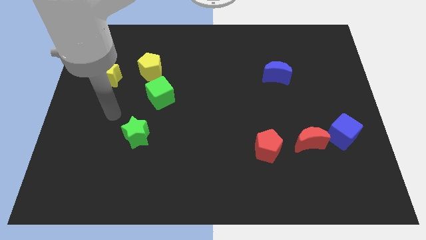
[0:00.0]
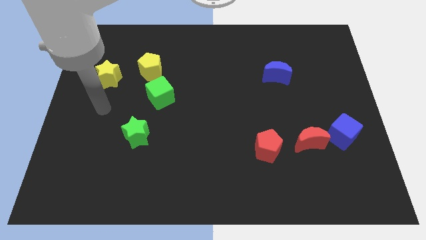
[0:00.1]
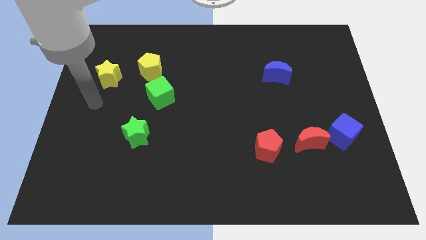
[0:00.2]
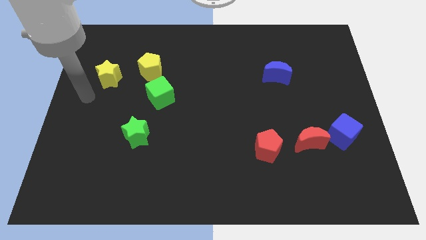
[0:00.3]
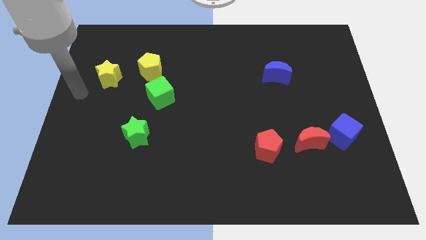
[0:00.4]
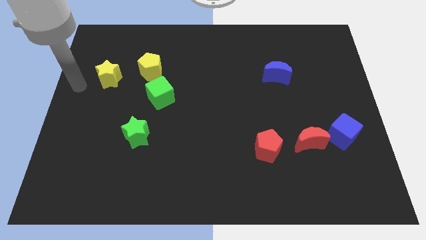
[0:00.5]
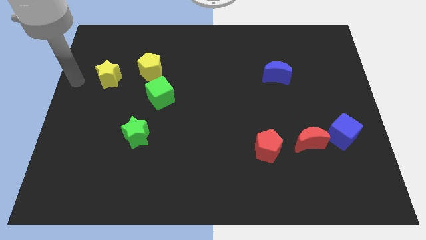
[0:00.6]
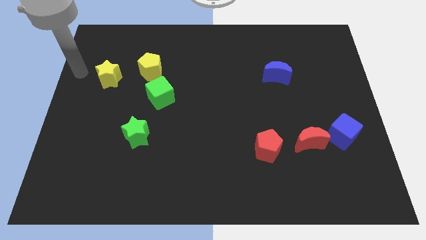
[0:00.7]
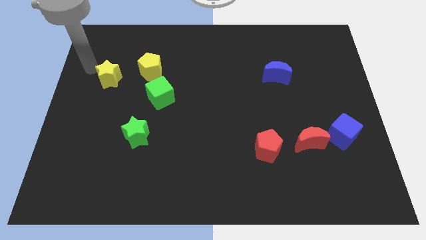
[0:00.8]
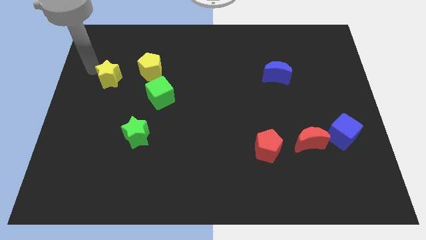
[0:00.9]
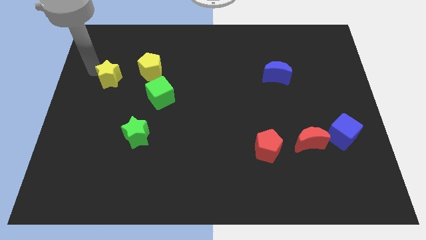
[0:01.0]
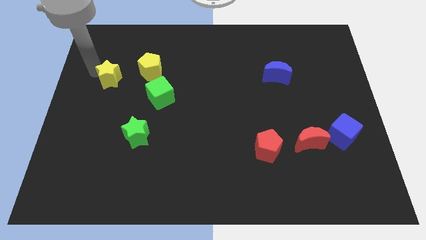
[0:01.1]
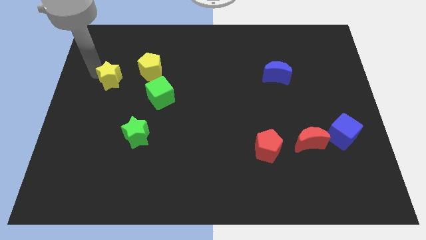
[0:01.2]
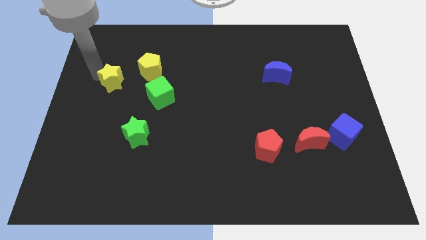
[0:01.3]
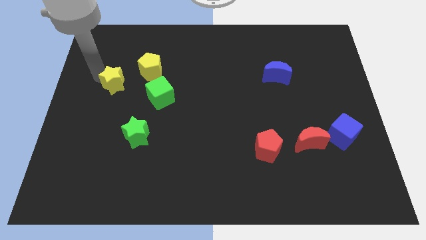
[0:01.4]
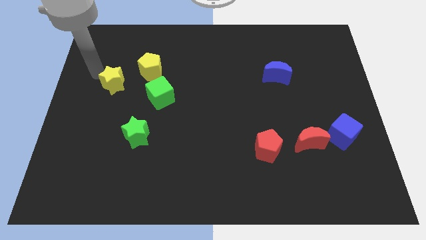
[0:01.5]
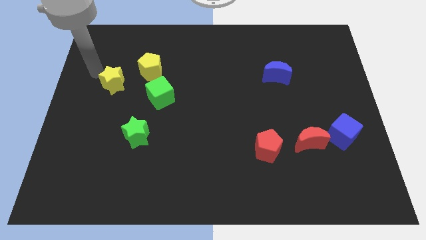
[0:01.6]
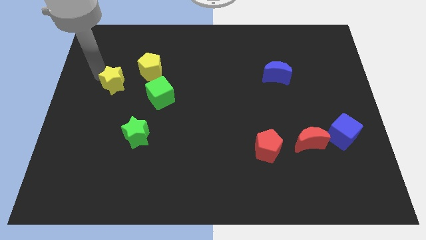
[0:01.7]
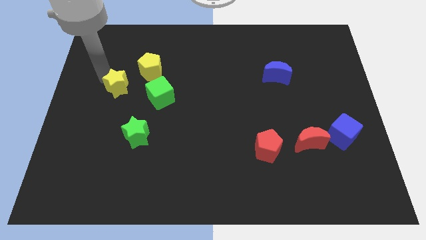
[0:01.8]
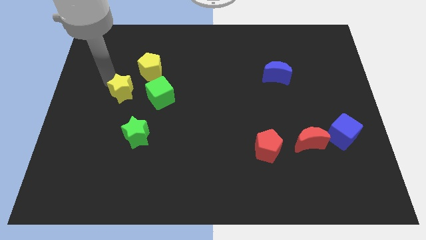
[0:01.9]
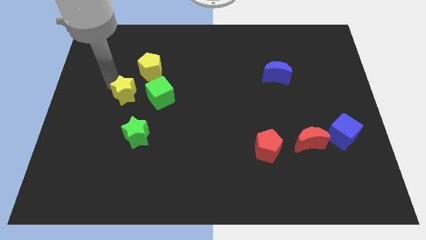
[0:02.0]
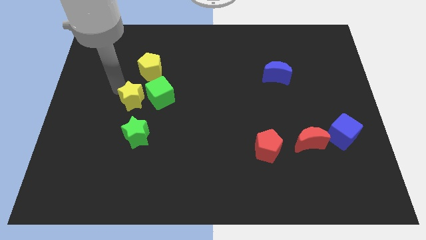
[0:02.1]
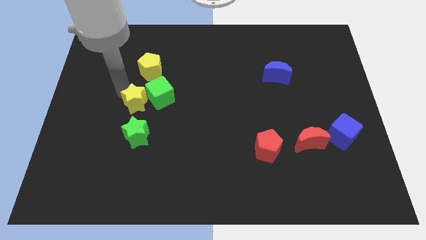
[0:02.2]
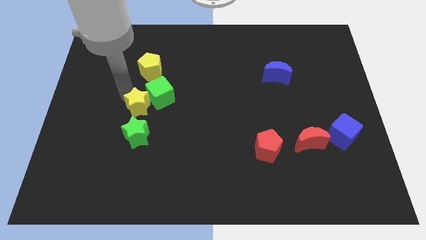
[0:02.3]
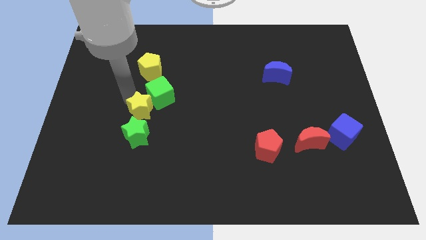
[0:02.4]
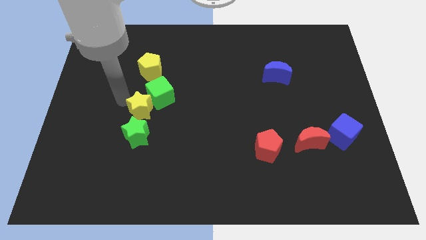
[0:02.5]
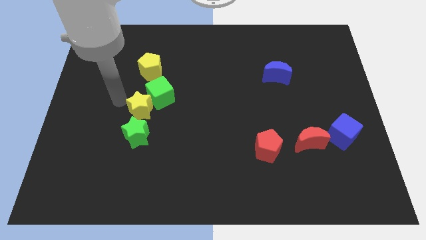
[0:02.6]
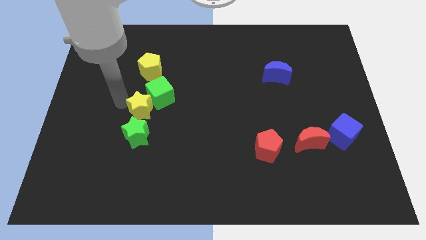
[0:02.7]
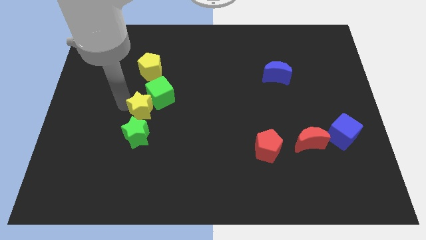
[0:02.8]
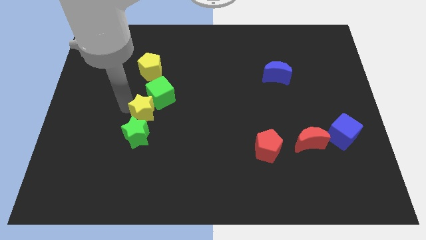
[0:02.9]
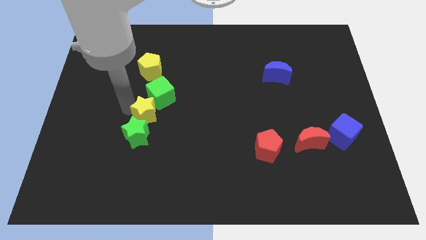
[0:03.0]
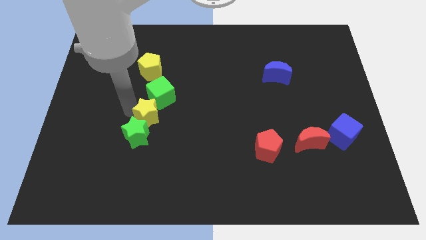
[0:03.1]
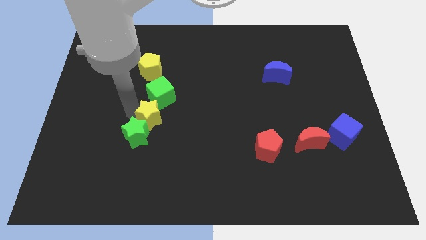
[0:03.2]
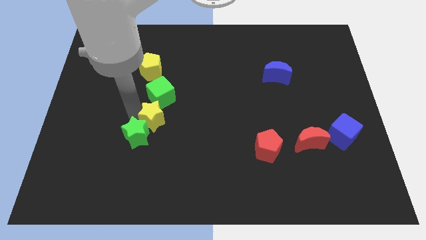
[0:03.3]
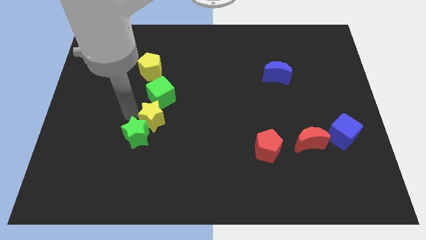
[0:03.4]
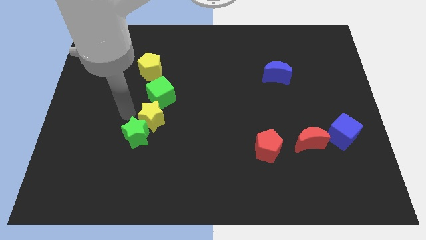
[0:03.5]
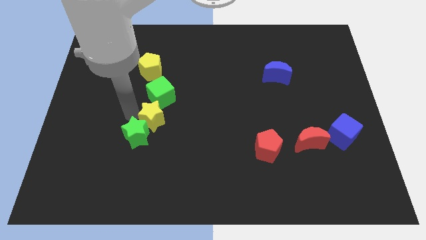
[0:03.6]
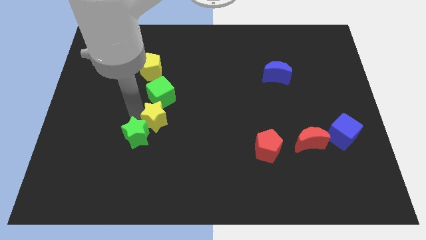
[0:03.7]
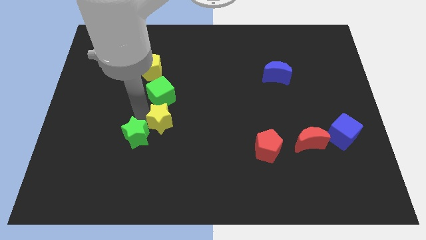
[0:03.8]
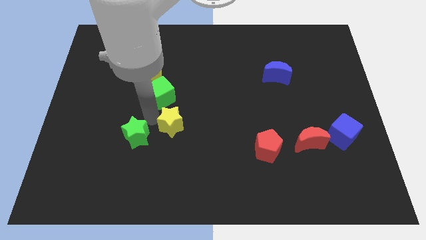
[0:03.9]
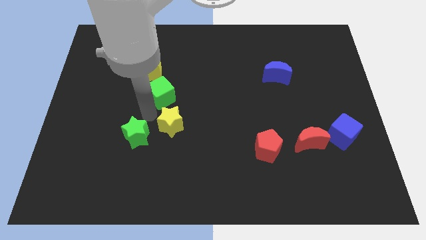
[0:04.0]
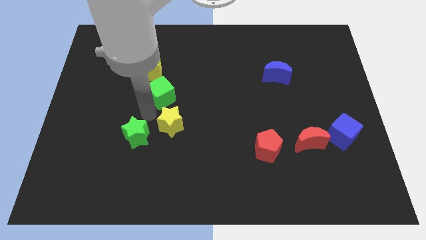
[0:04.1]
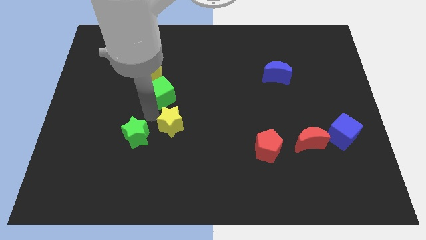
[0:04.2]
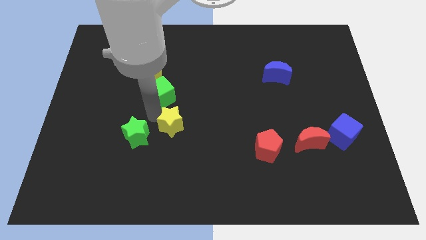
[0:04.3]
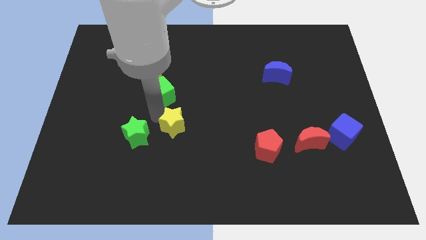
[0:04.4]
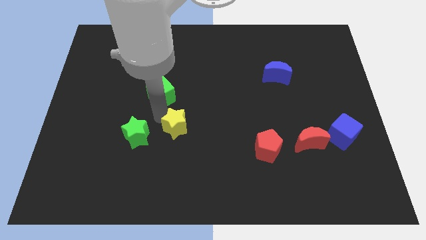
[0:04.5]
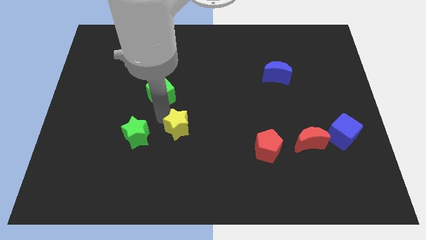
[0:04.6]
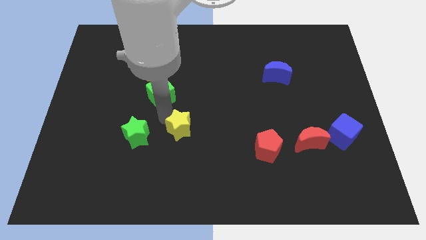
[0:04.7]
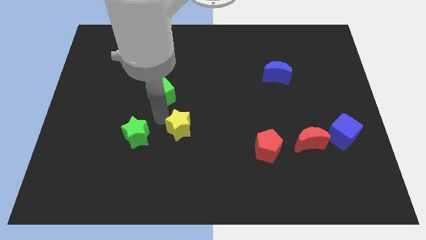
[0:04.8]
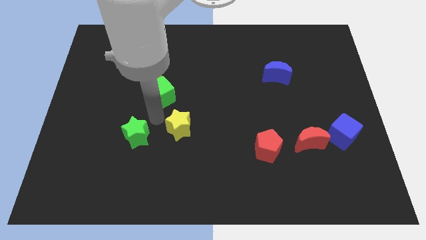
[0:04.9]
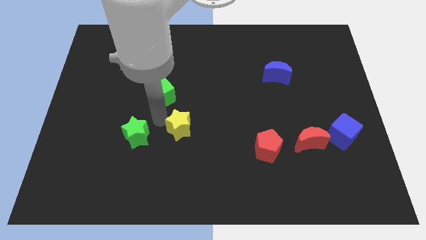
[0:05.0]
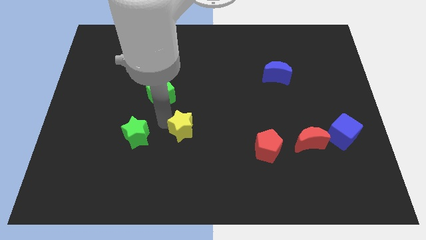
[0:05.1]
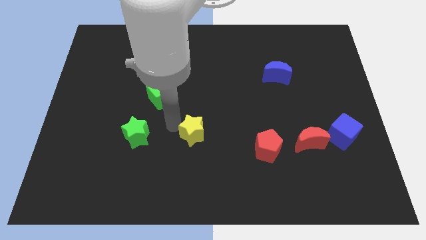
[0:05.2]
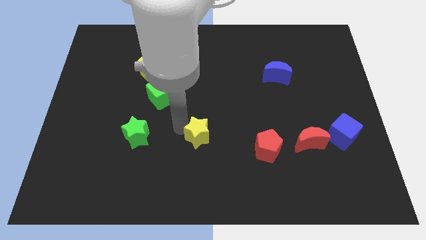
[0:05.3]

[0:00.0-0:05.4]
put the yellow star to the left side of the red pentagon

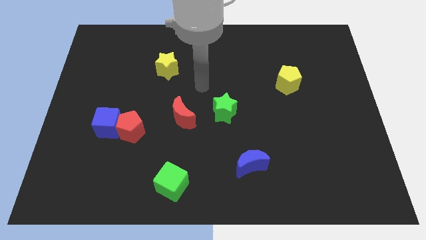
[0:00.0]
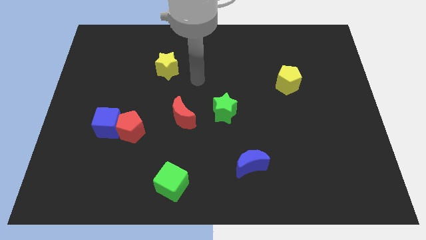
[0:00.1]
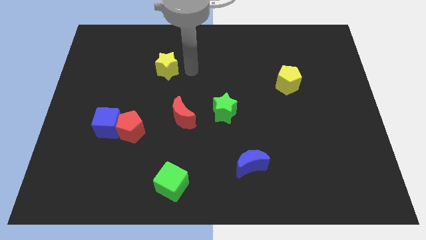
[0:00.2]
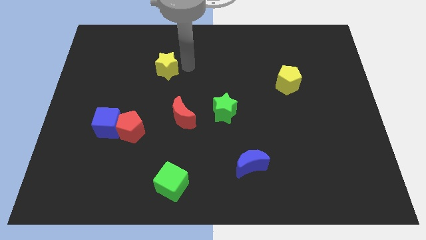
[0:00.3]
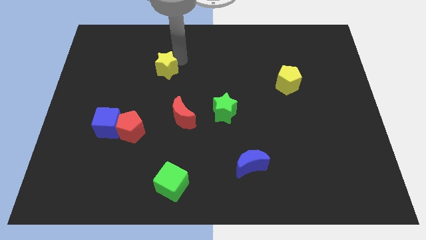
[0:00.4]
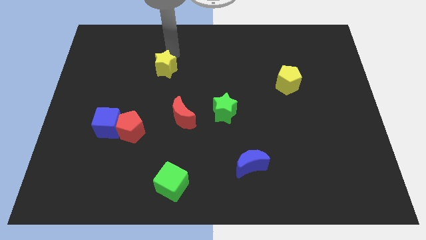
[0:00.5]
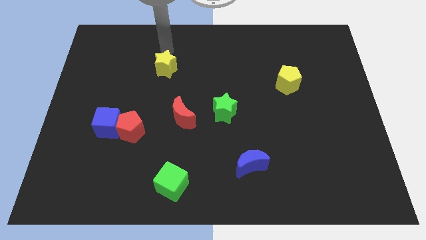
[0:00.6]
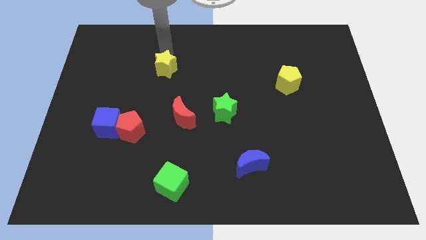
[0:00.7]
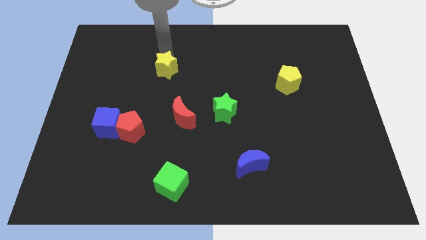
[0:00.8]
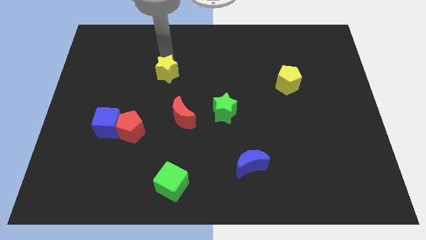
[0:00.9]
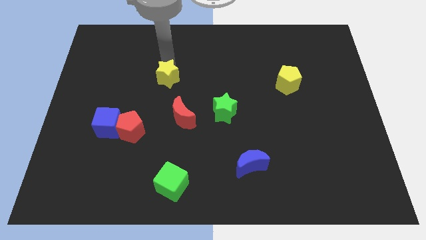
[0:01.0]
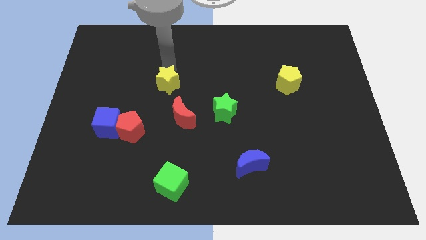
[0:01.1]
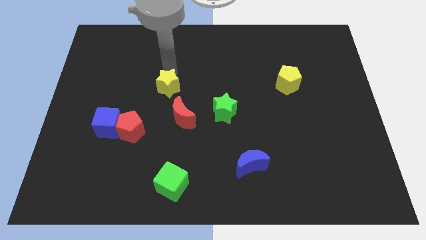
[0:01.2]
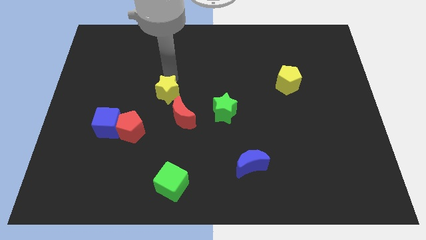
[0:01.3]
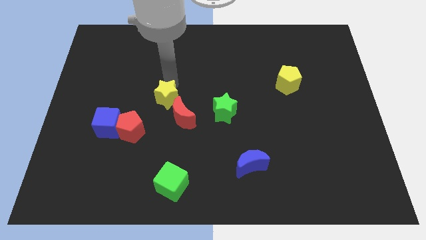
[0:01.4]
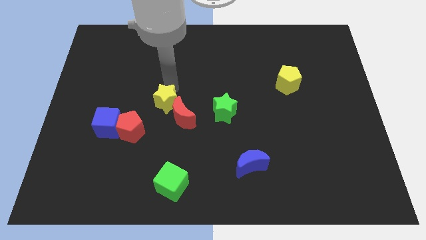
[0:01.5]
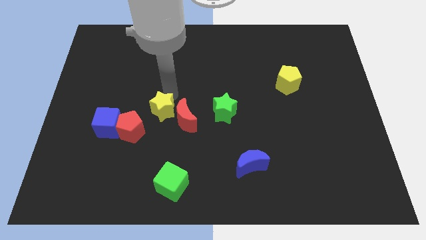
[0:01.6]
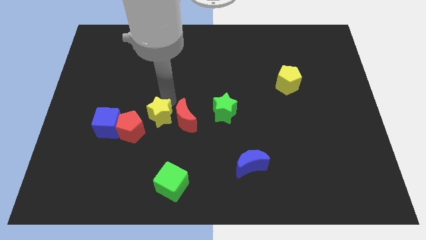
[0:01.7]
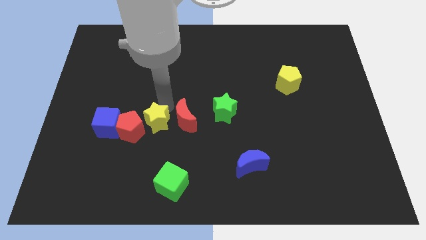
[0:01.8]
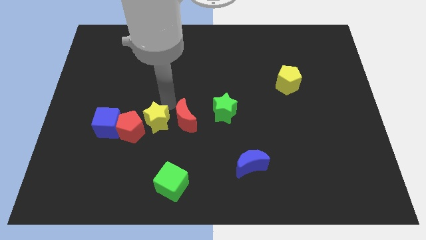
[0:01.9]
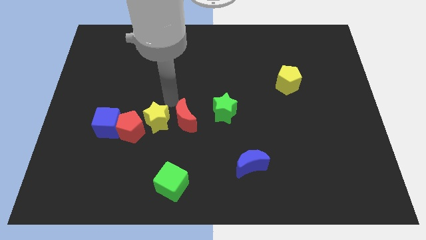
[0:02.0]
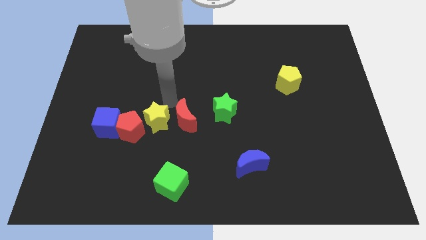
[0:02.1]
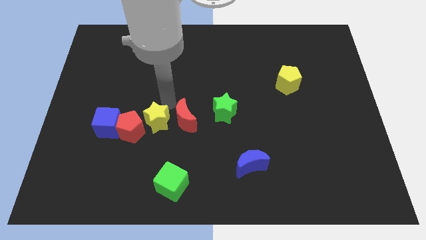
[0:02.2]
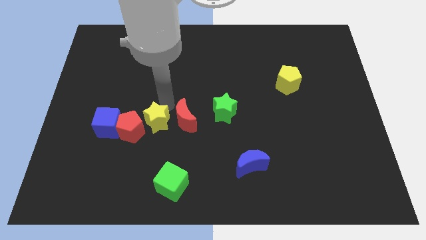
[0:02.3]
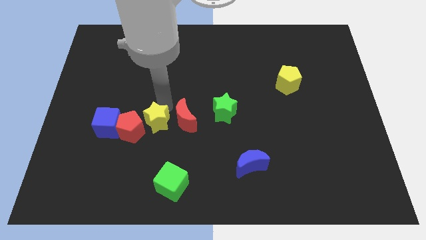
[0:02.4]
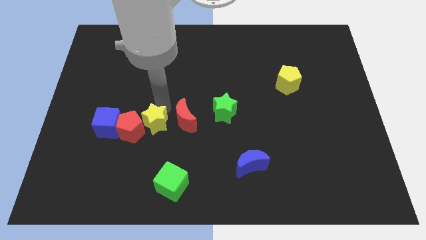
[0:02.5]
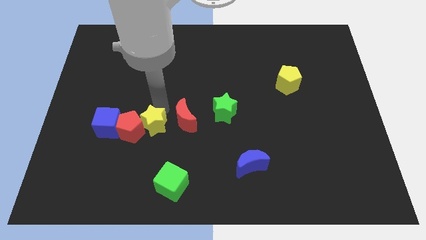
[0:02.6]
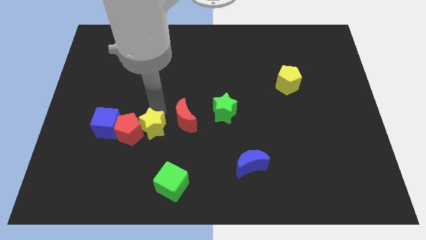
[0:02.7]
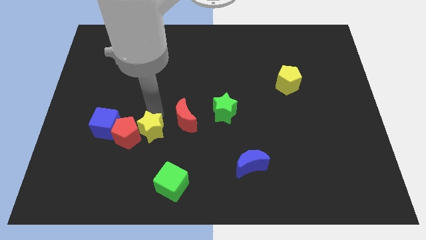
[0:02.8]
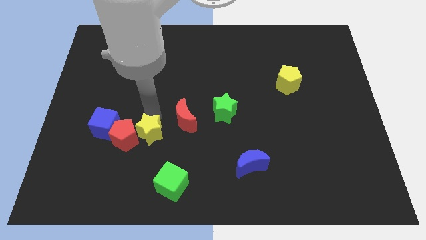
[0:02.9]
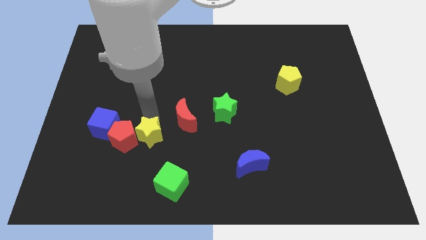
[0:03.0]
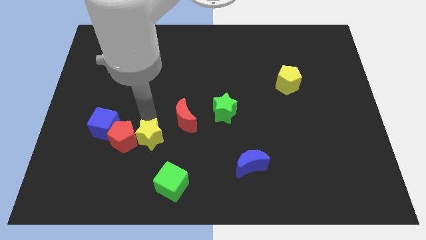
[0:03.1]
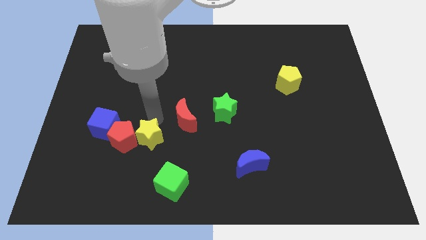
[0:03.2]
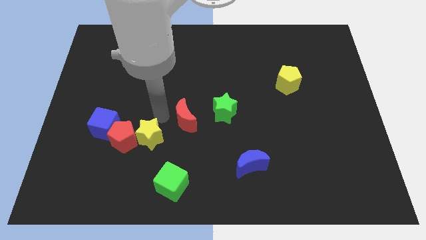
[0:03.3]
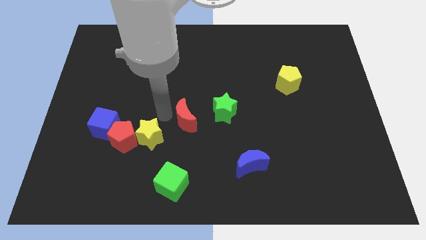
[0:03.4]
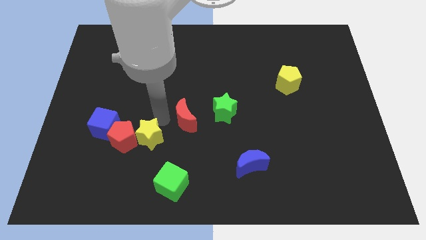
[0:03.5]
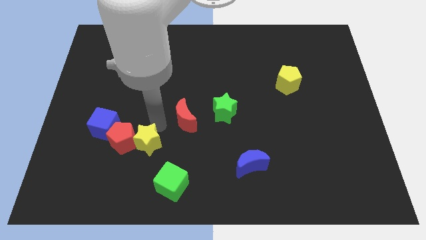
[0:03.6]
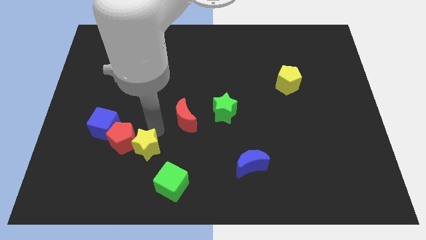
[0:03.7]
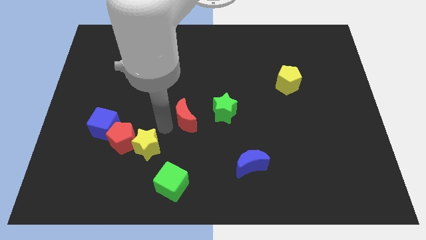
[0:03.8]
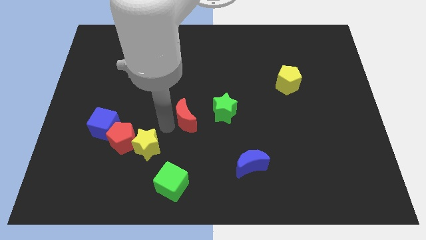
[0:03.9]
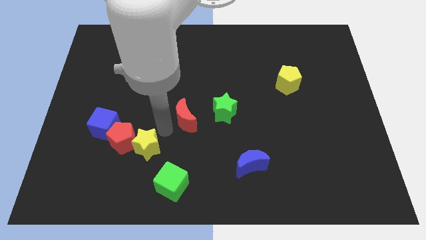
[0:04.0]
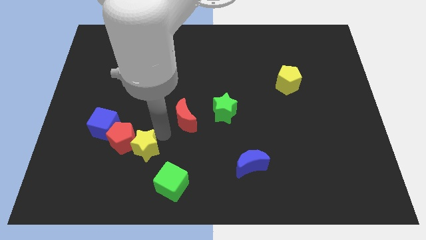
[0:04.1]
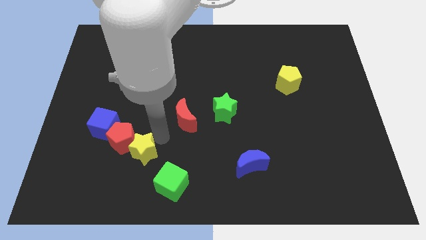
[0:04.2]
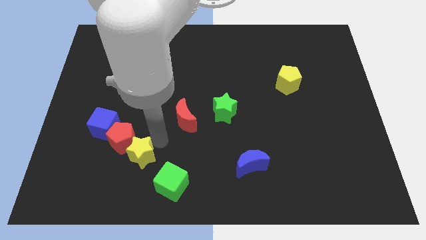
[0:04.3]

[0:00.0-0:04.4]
put the yellow star below the red pentagon
